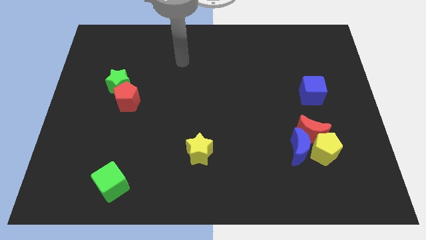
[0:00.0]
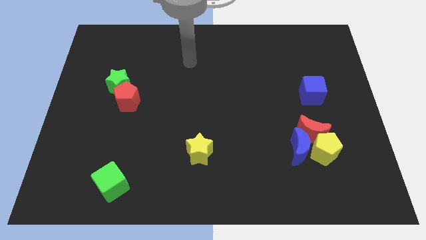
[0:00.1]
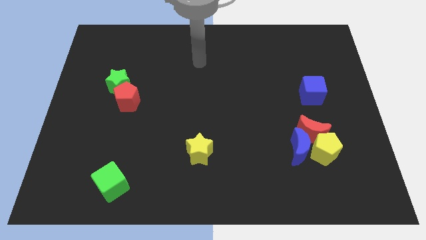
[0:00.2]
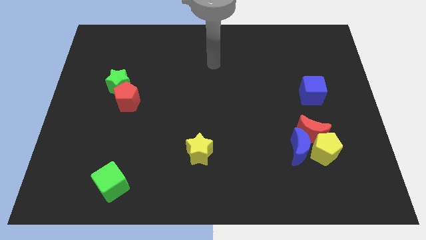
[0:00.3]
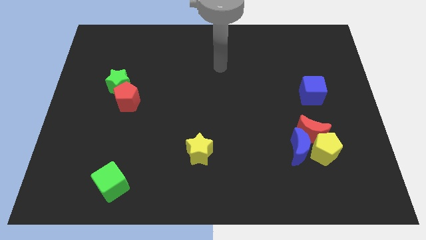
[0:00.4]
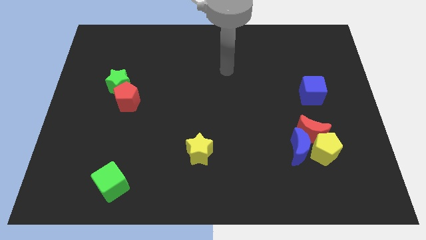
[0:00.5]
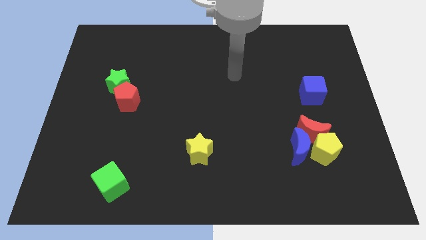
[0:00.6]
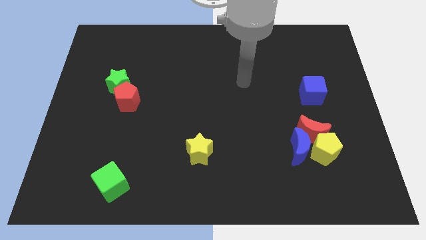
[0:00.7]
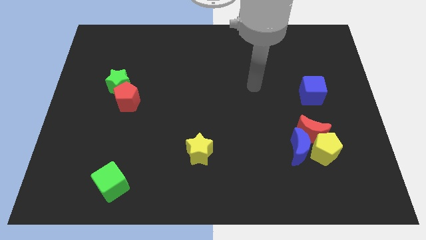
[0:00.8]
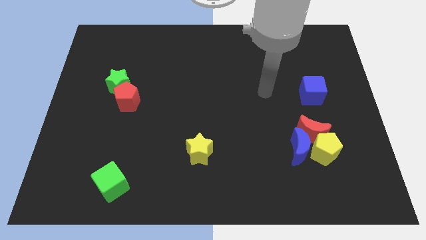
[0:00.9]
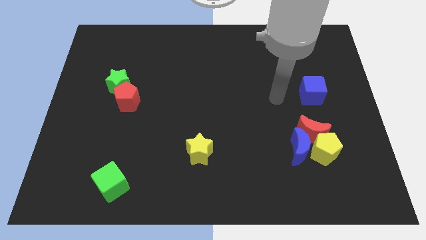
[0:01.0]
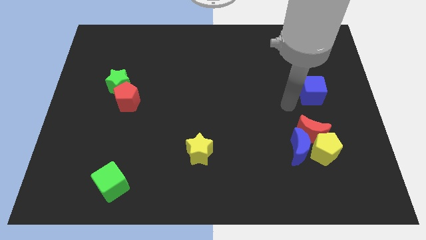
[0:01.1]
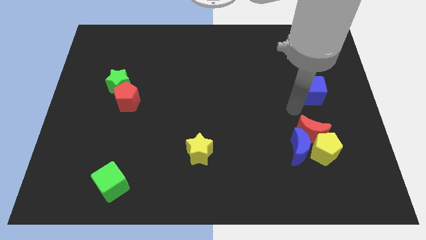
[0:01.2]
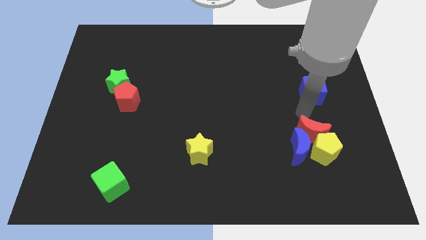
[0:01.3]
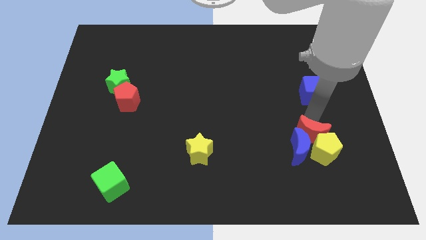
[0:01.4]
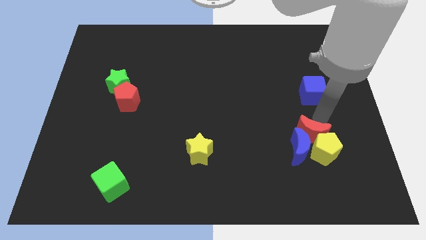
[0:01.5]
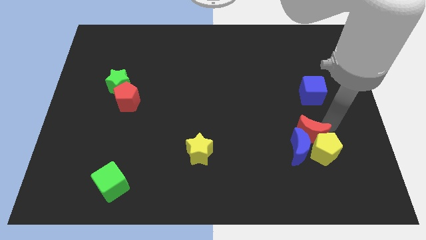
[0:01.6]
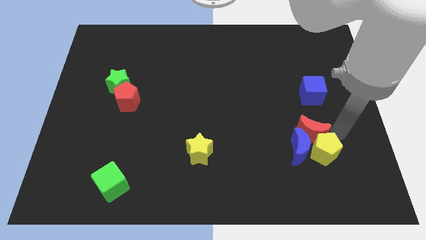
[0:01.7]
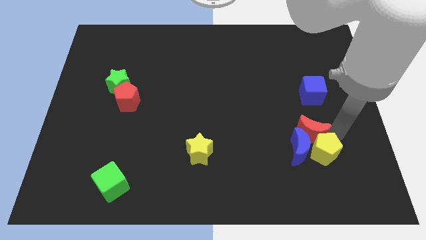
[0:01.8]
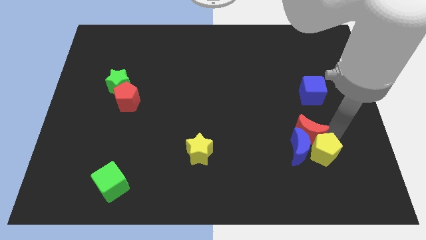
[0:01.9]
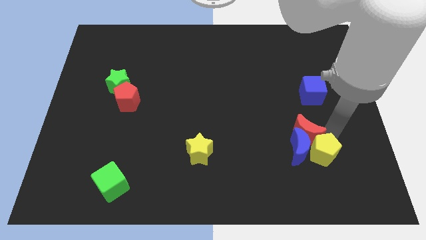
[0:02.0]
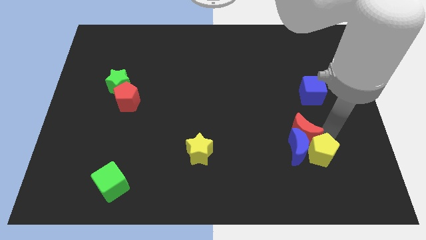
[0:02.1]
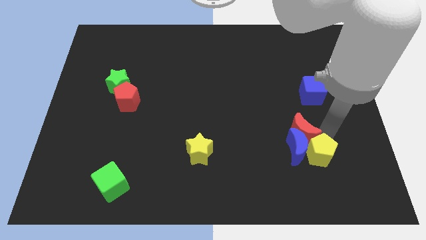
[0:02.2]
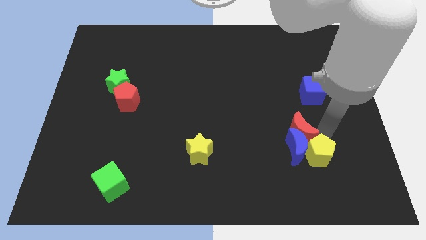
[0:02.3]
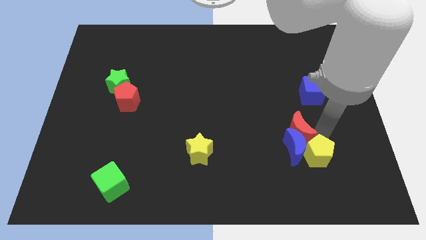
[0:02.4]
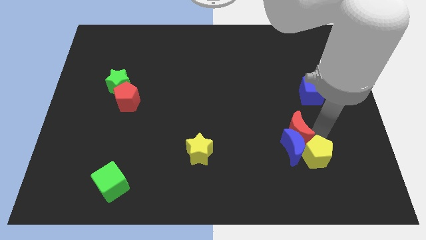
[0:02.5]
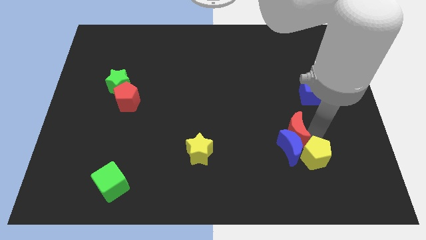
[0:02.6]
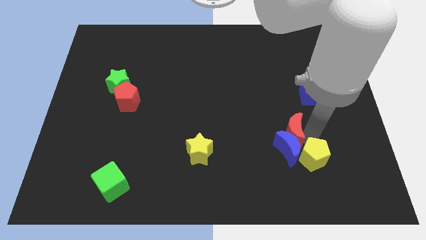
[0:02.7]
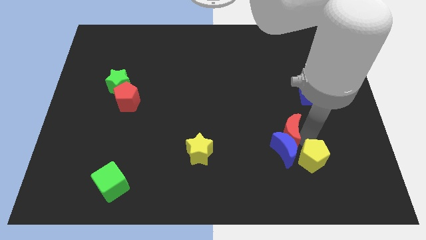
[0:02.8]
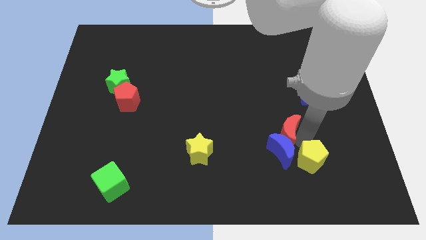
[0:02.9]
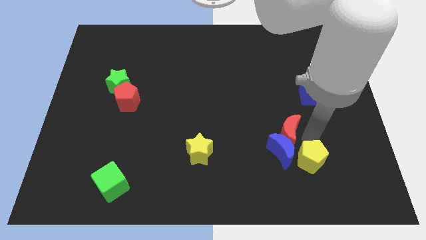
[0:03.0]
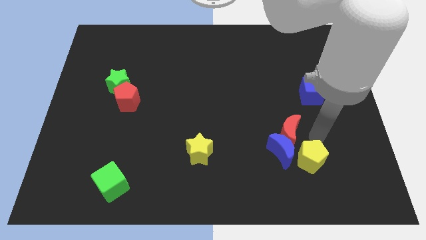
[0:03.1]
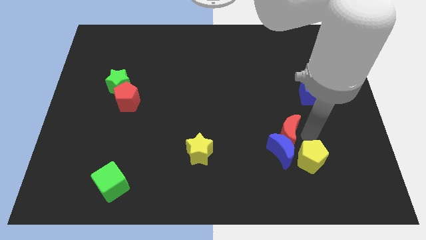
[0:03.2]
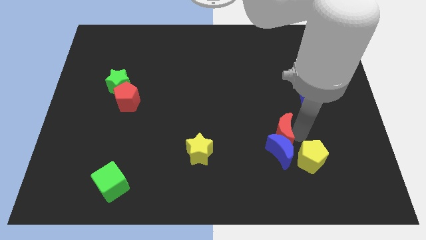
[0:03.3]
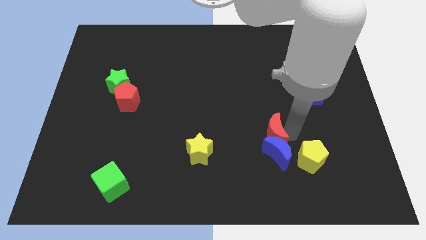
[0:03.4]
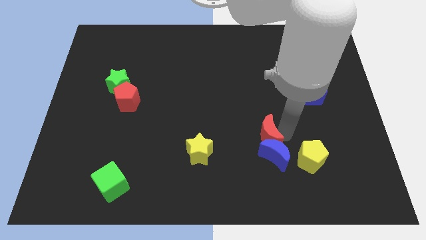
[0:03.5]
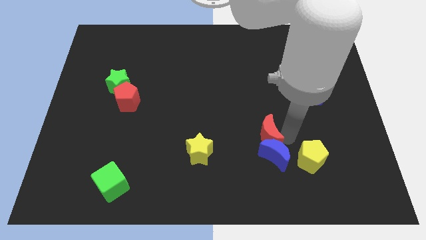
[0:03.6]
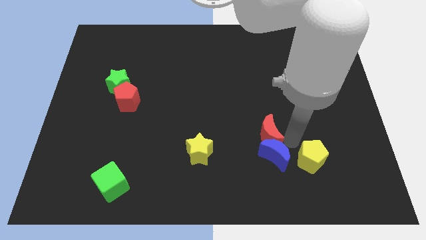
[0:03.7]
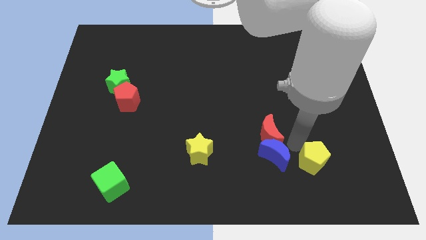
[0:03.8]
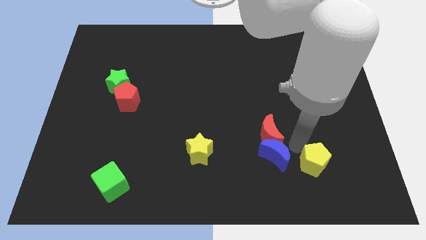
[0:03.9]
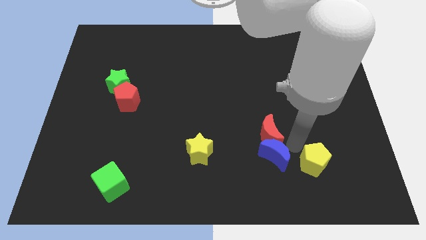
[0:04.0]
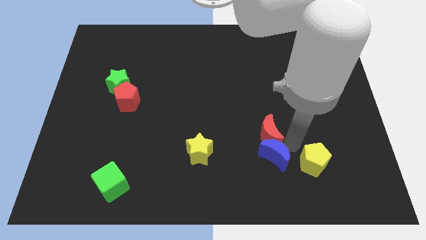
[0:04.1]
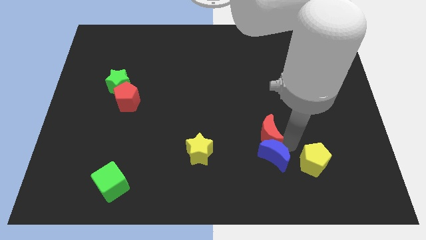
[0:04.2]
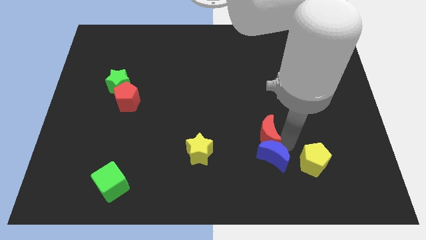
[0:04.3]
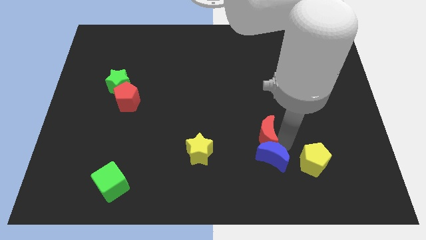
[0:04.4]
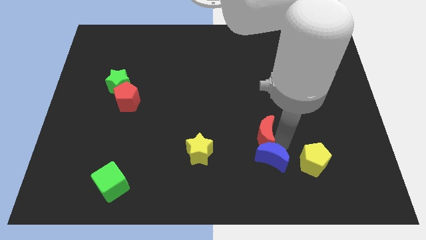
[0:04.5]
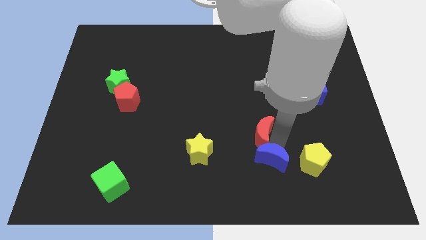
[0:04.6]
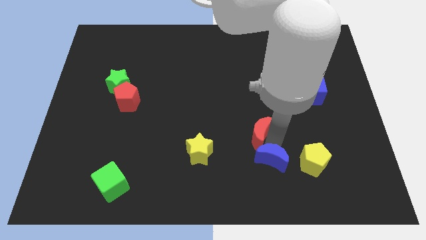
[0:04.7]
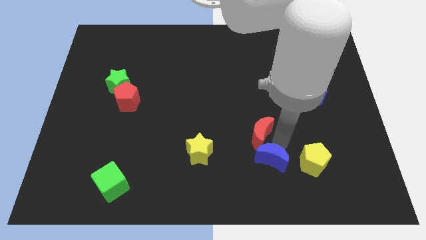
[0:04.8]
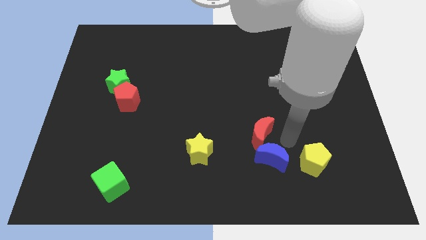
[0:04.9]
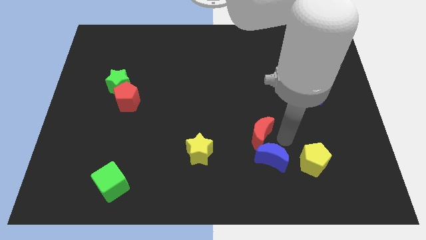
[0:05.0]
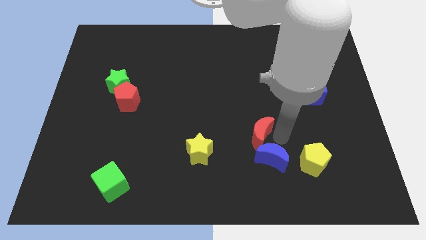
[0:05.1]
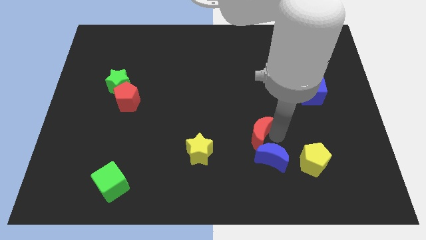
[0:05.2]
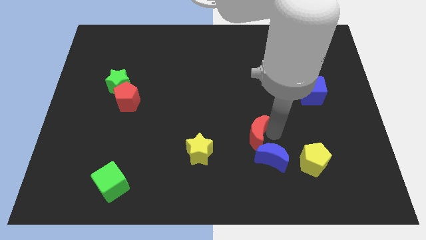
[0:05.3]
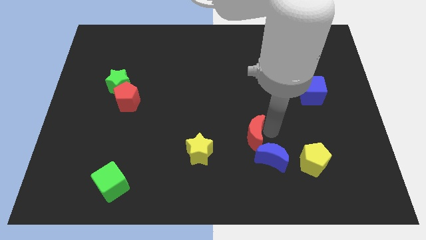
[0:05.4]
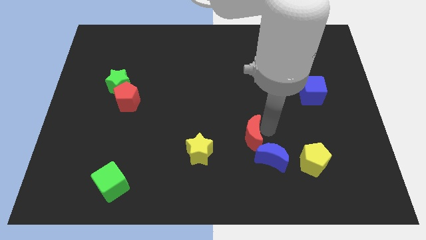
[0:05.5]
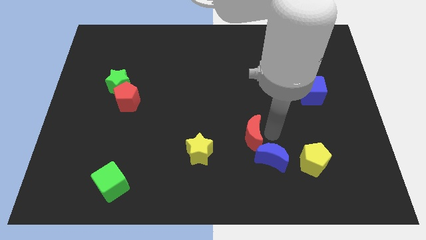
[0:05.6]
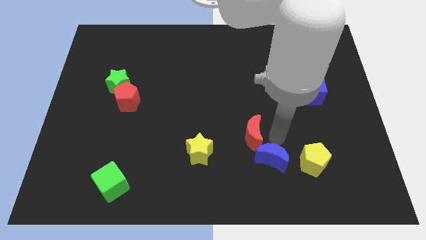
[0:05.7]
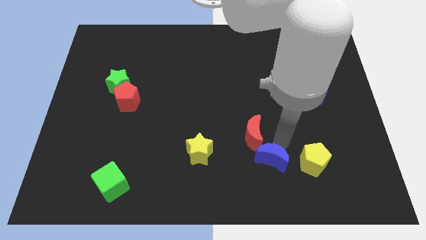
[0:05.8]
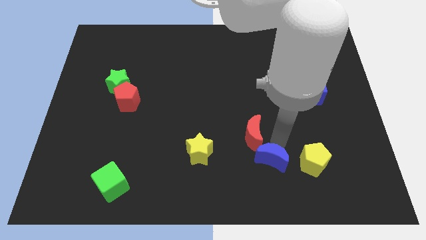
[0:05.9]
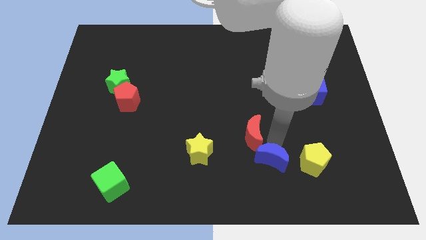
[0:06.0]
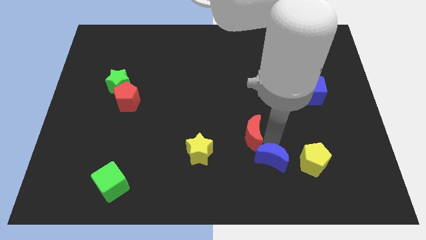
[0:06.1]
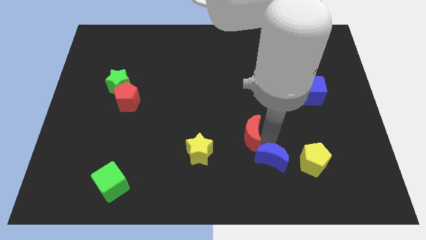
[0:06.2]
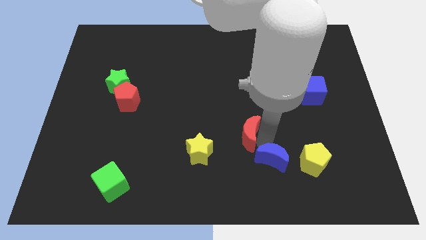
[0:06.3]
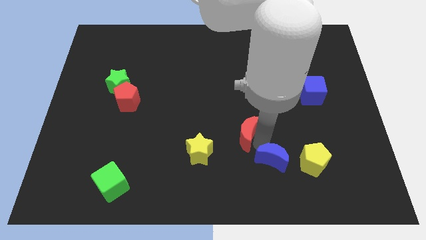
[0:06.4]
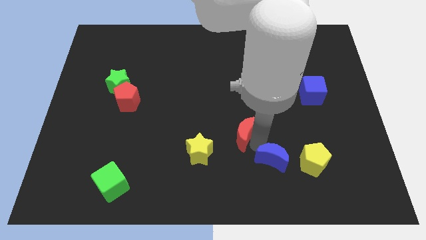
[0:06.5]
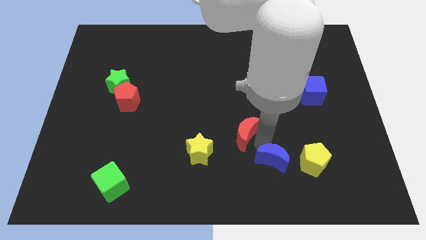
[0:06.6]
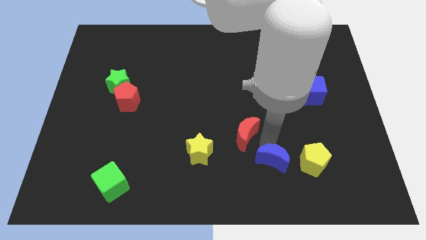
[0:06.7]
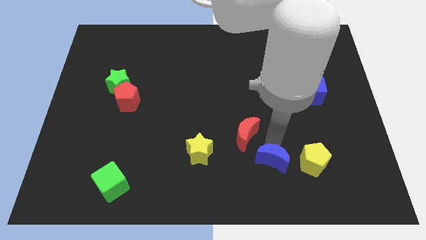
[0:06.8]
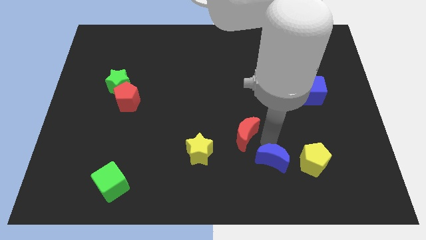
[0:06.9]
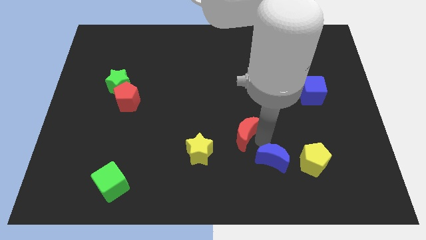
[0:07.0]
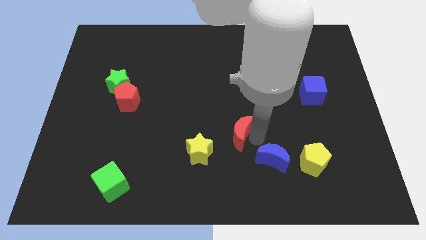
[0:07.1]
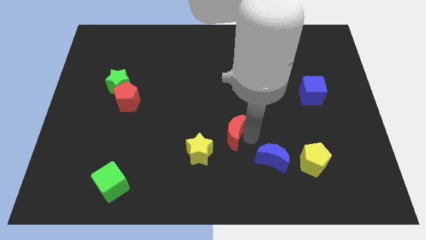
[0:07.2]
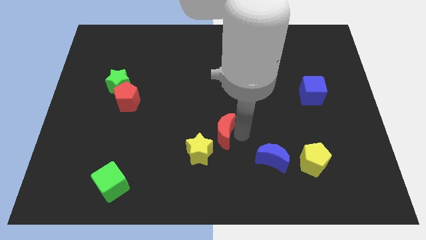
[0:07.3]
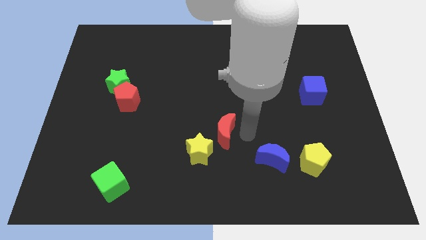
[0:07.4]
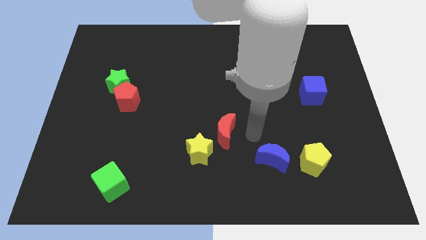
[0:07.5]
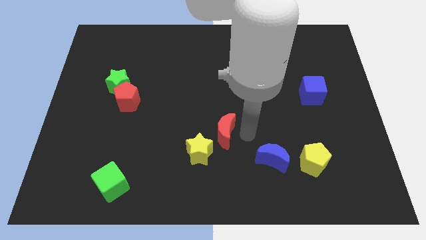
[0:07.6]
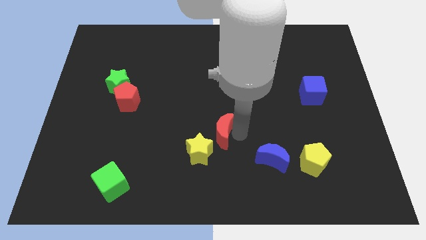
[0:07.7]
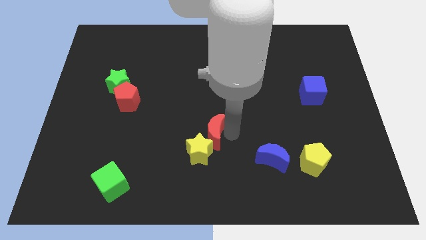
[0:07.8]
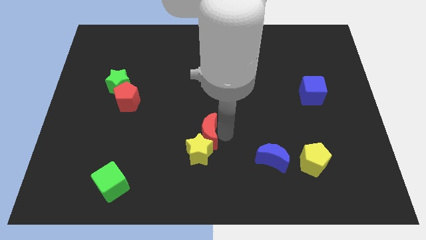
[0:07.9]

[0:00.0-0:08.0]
put the red moon to the top left of the yellow star
